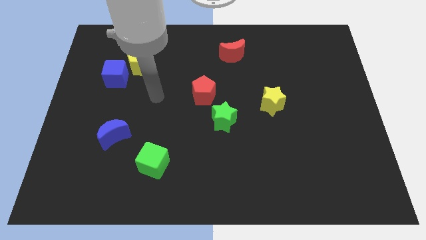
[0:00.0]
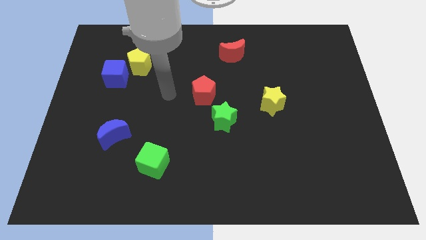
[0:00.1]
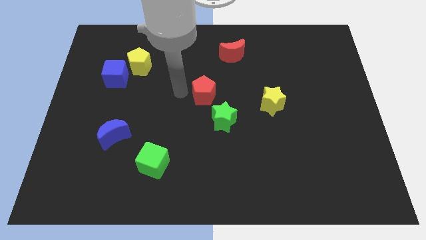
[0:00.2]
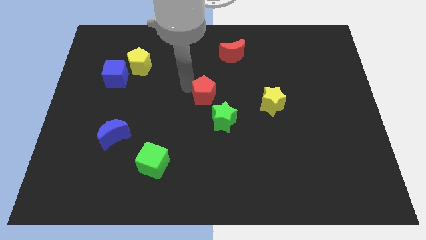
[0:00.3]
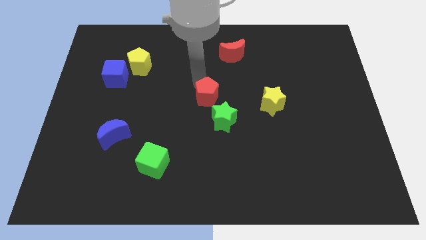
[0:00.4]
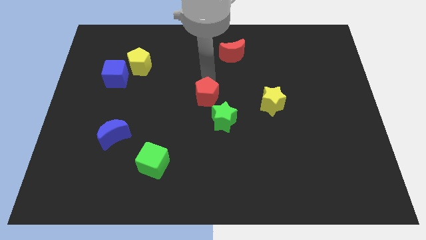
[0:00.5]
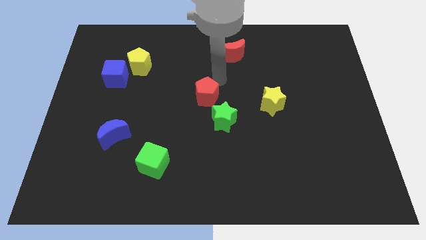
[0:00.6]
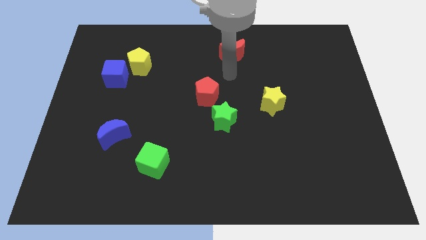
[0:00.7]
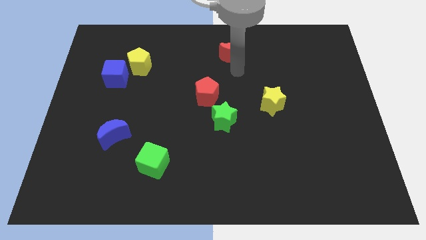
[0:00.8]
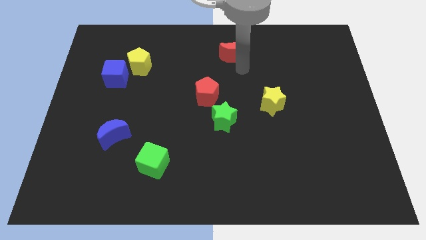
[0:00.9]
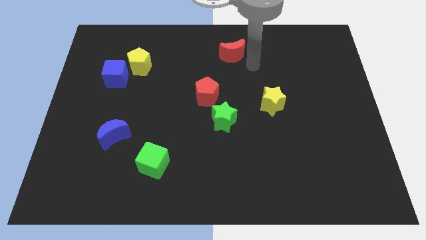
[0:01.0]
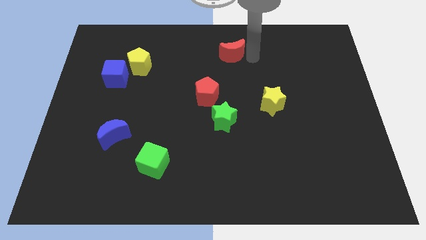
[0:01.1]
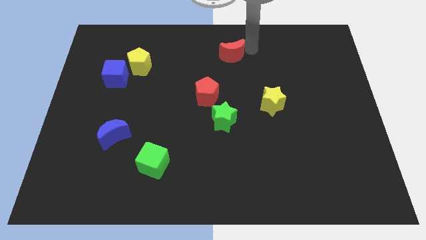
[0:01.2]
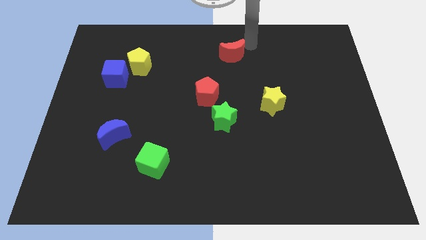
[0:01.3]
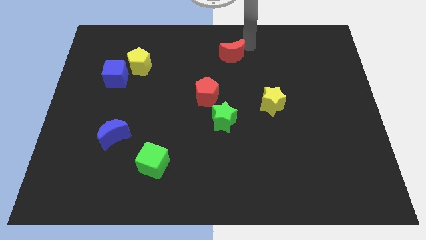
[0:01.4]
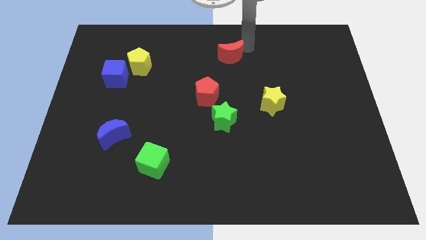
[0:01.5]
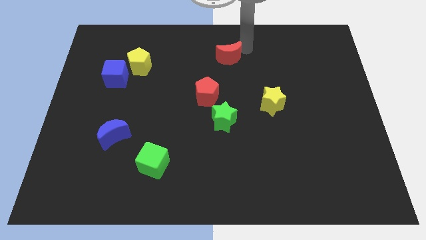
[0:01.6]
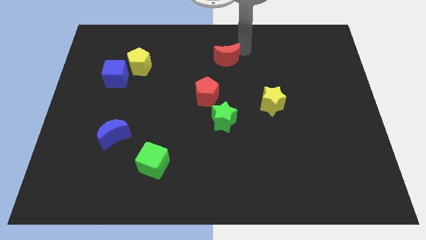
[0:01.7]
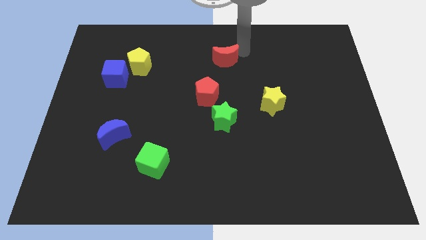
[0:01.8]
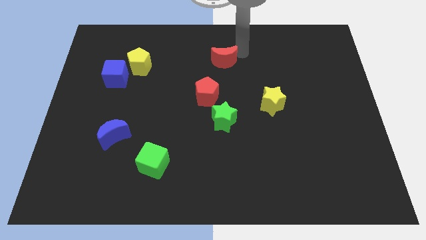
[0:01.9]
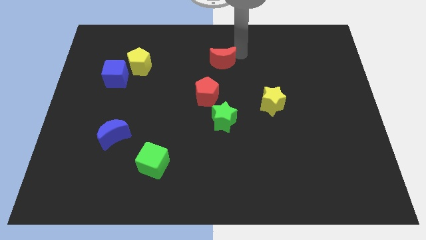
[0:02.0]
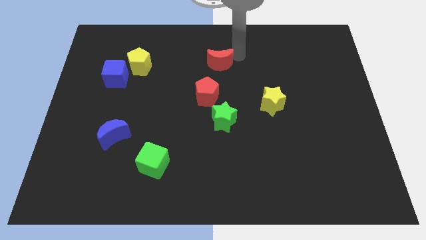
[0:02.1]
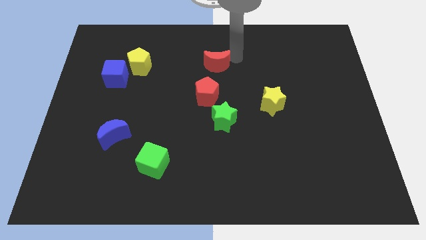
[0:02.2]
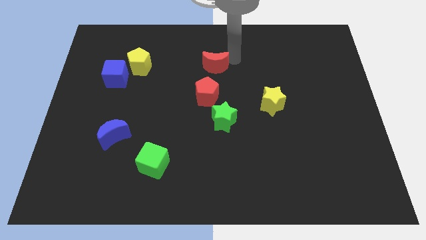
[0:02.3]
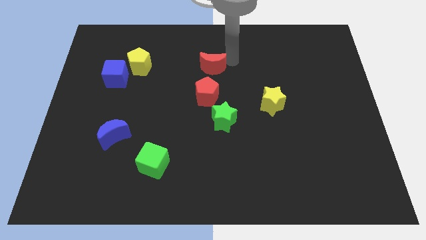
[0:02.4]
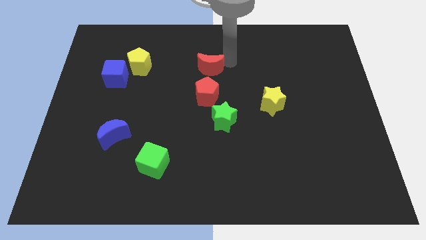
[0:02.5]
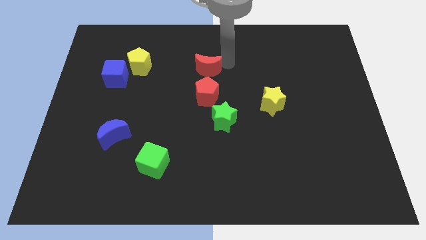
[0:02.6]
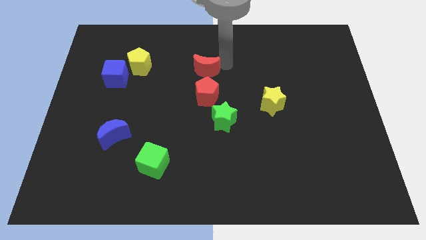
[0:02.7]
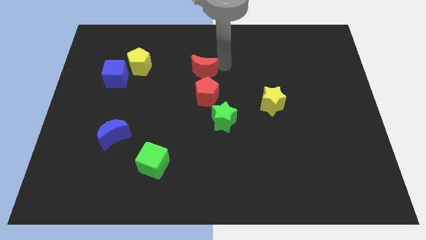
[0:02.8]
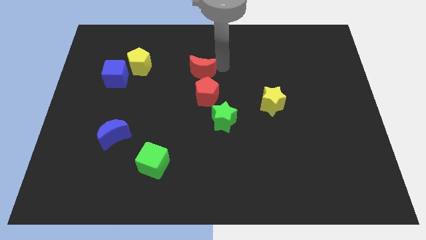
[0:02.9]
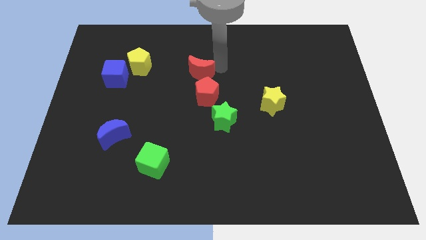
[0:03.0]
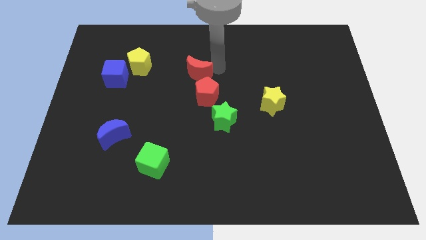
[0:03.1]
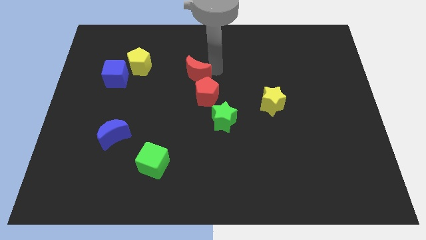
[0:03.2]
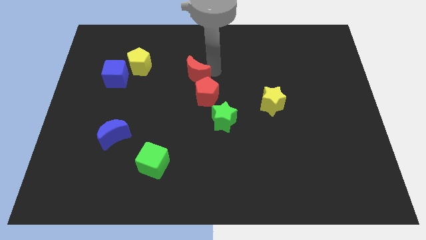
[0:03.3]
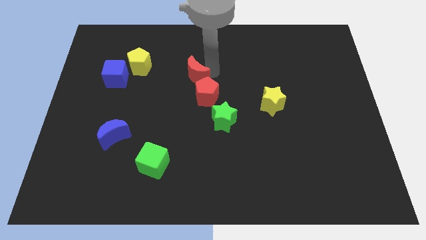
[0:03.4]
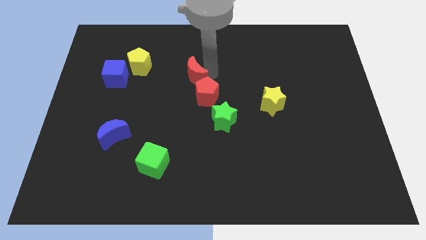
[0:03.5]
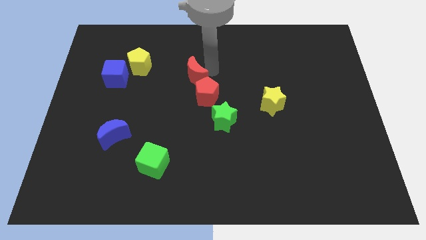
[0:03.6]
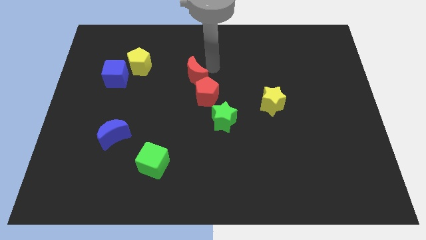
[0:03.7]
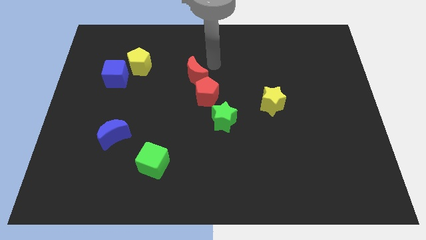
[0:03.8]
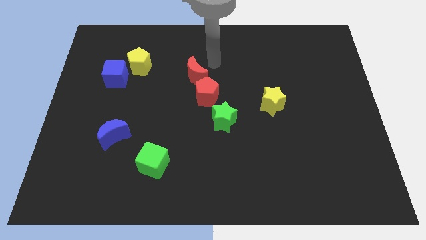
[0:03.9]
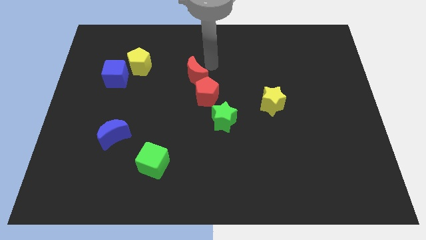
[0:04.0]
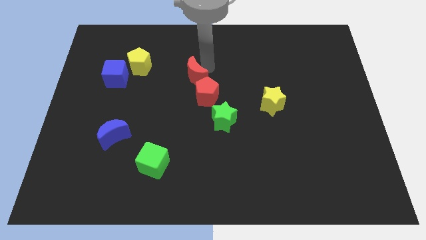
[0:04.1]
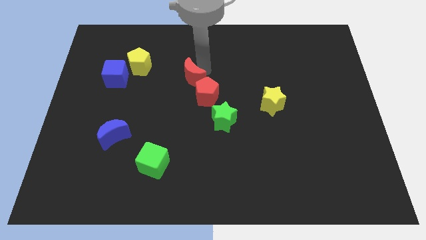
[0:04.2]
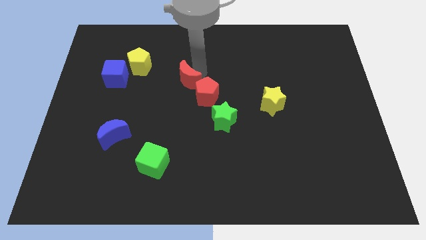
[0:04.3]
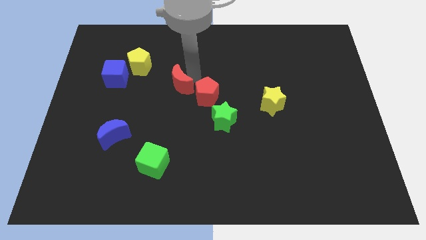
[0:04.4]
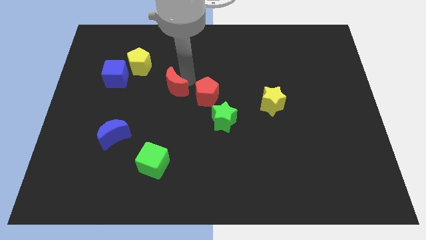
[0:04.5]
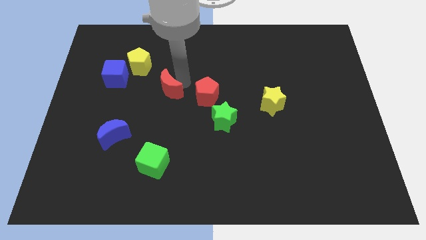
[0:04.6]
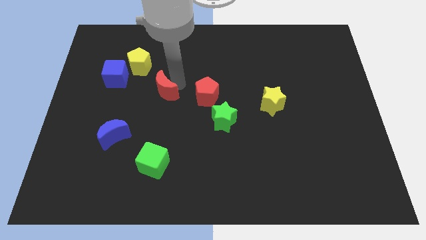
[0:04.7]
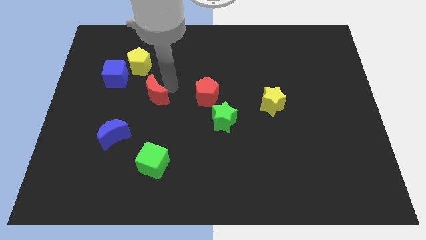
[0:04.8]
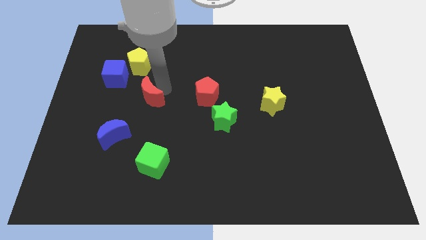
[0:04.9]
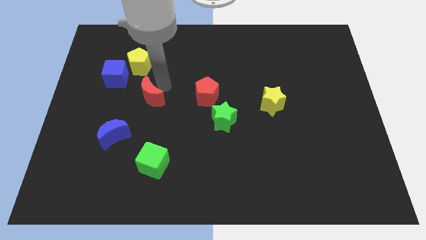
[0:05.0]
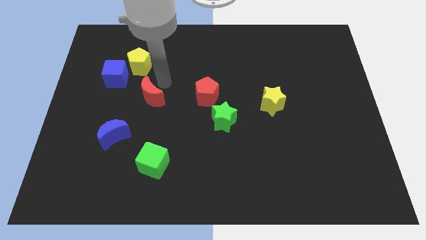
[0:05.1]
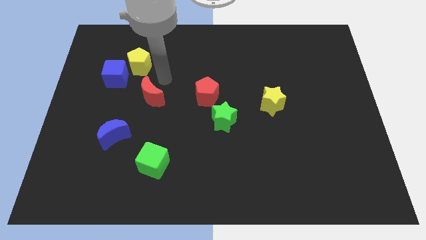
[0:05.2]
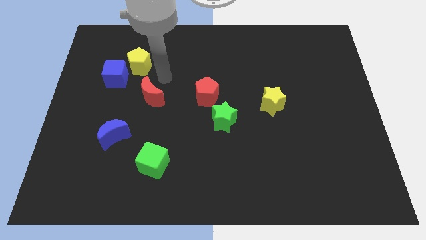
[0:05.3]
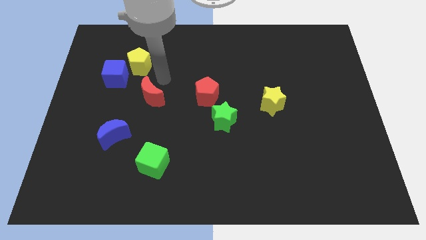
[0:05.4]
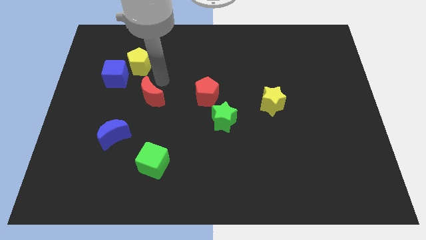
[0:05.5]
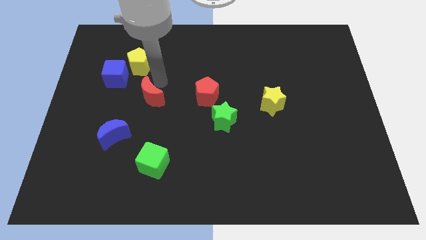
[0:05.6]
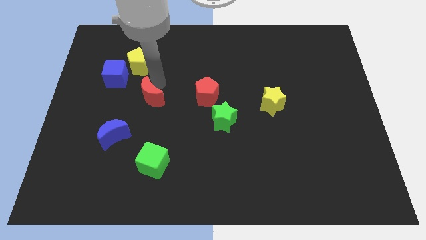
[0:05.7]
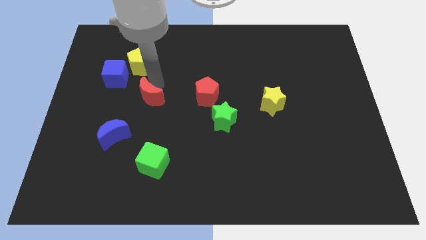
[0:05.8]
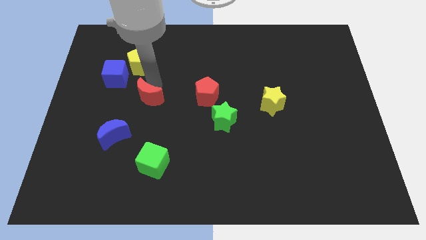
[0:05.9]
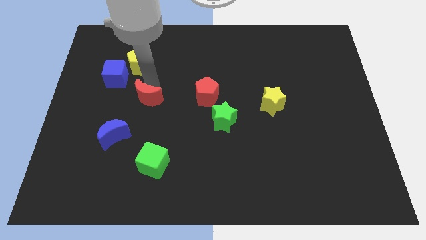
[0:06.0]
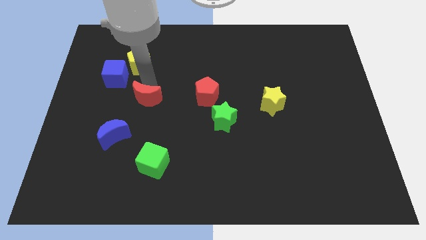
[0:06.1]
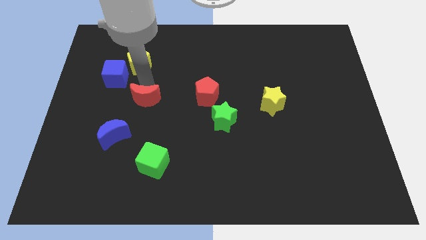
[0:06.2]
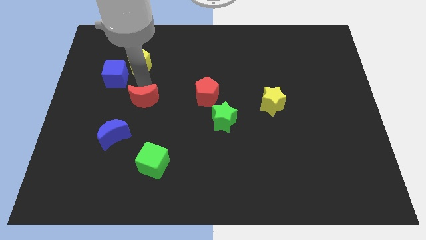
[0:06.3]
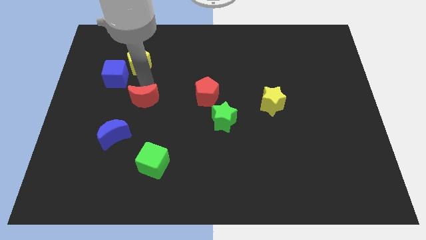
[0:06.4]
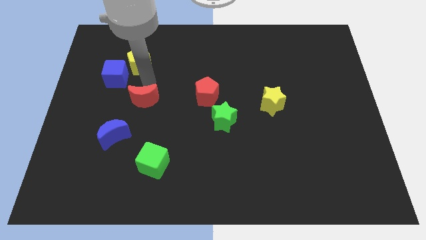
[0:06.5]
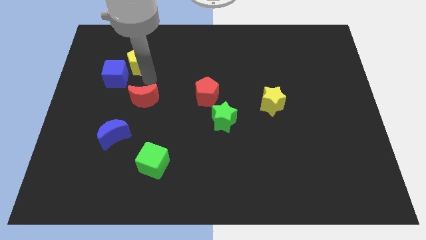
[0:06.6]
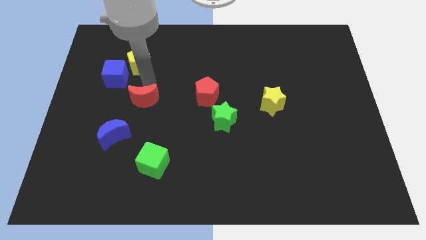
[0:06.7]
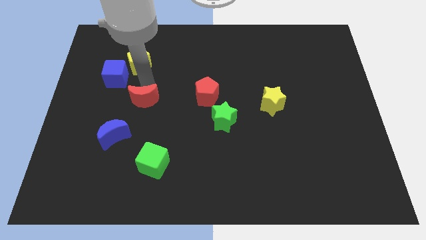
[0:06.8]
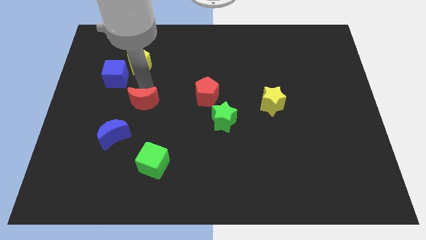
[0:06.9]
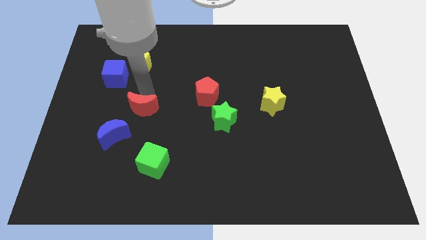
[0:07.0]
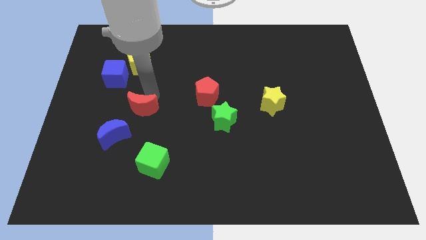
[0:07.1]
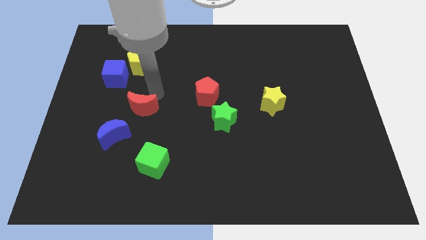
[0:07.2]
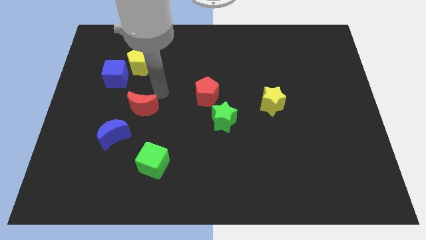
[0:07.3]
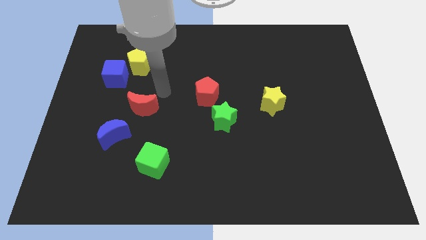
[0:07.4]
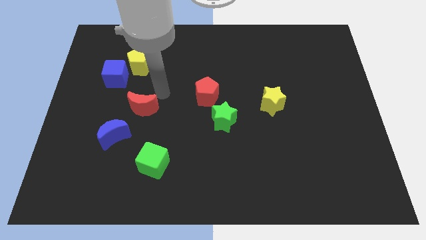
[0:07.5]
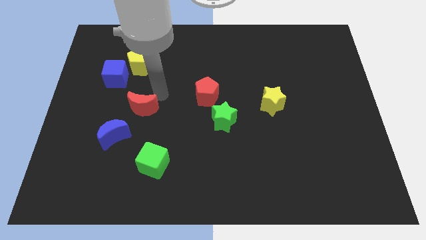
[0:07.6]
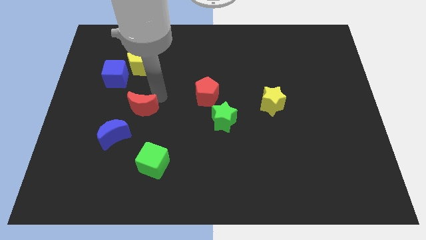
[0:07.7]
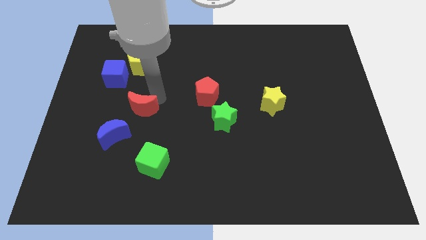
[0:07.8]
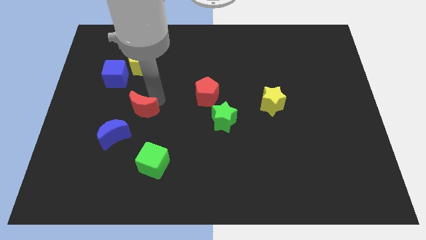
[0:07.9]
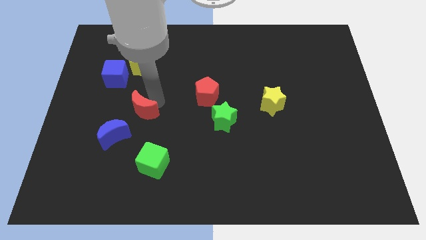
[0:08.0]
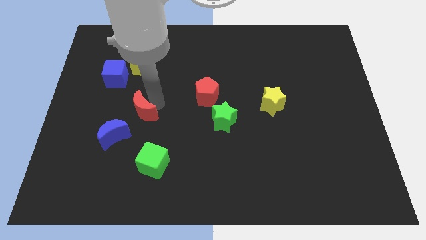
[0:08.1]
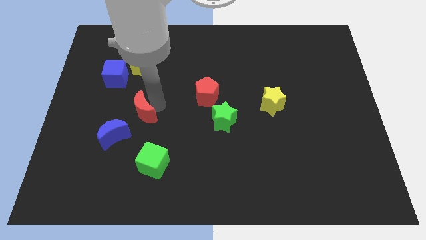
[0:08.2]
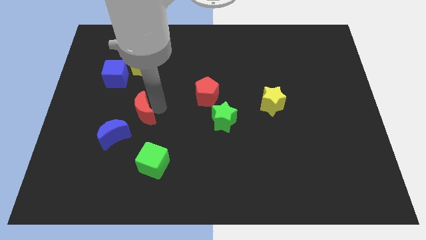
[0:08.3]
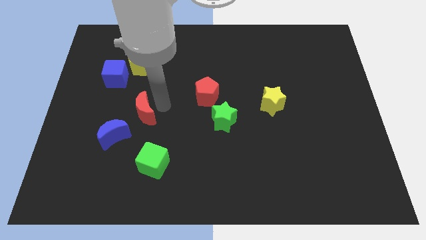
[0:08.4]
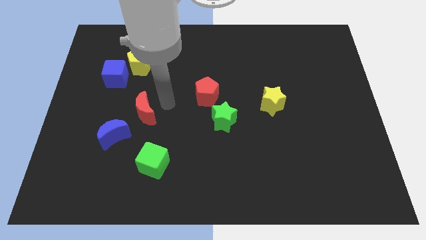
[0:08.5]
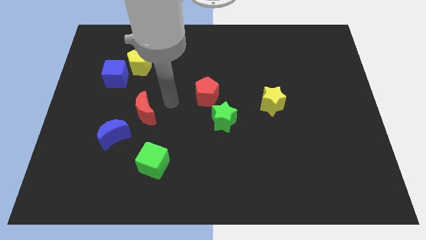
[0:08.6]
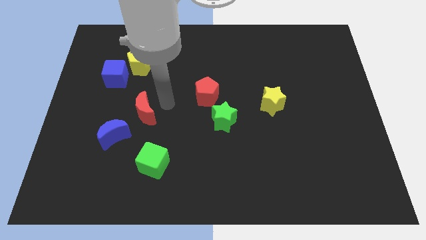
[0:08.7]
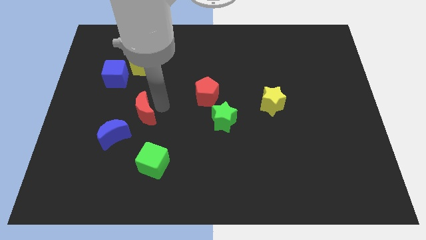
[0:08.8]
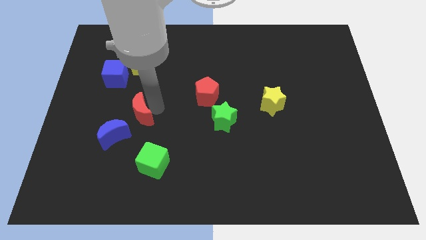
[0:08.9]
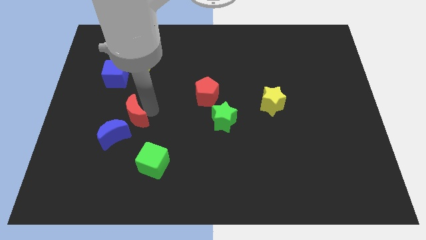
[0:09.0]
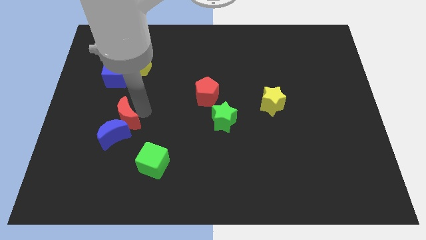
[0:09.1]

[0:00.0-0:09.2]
put the red moon towards the blue moon
